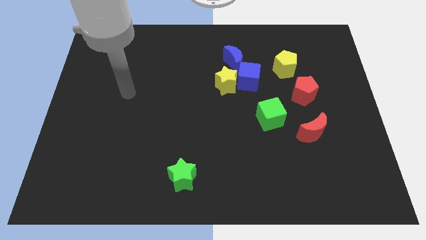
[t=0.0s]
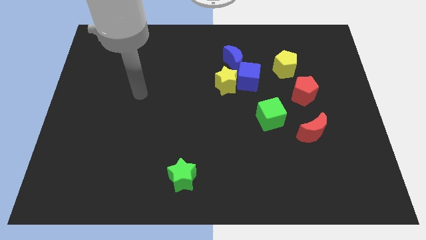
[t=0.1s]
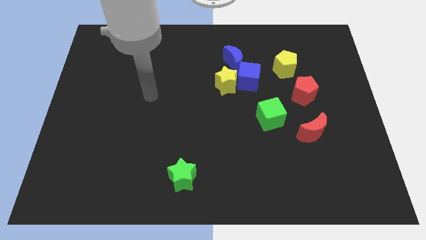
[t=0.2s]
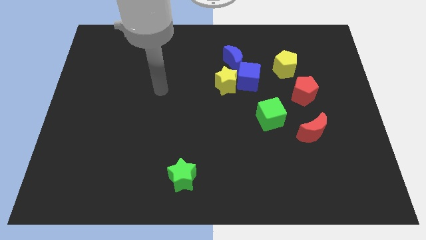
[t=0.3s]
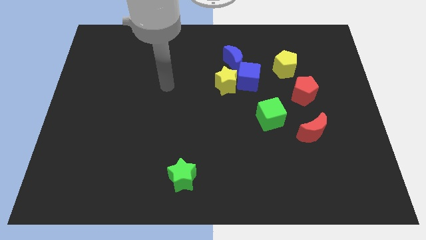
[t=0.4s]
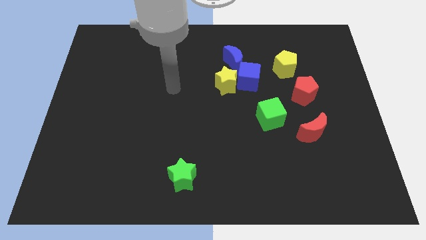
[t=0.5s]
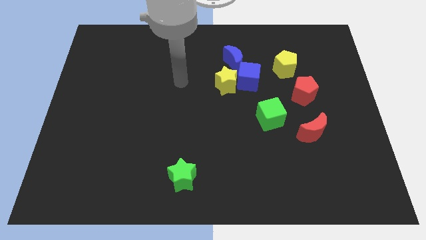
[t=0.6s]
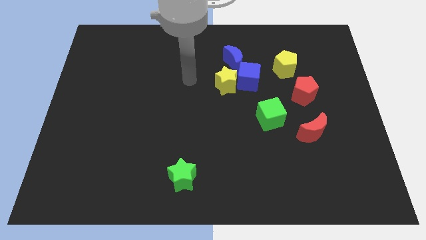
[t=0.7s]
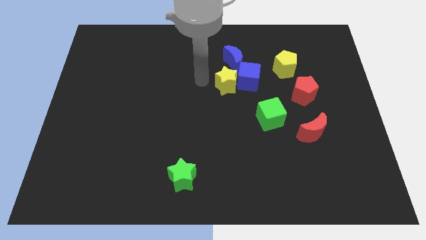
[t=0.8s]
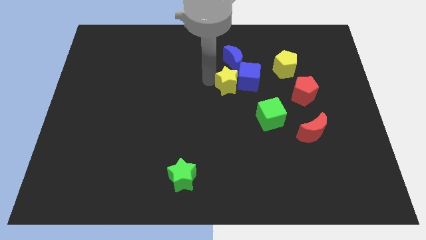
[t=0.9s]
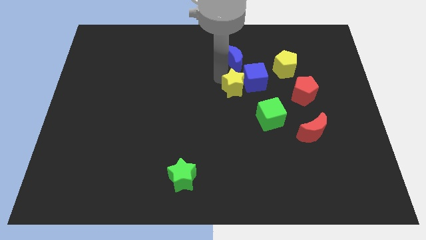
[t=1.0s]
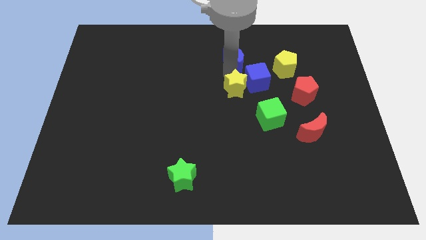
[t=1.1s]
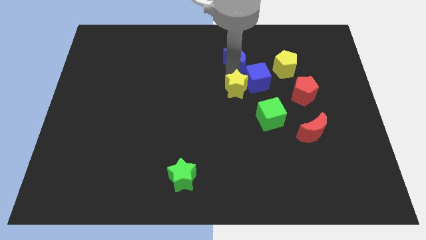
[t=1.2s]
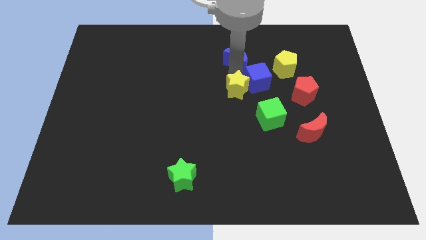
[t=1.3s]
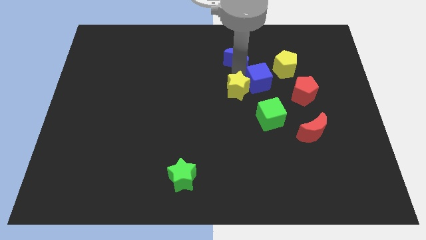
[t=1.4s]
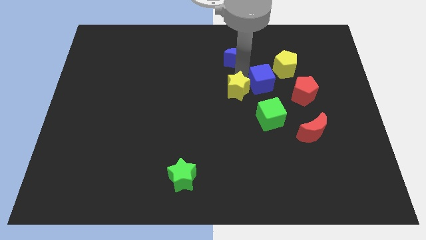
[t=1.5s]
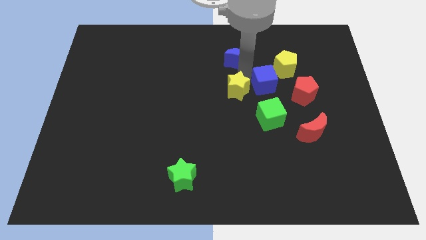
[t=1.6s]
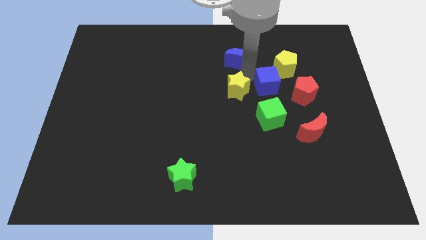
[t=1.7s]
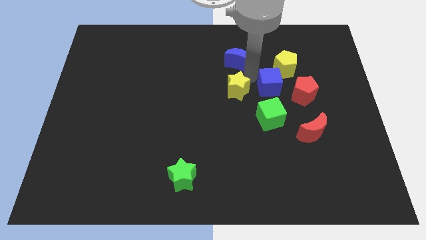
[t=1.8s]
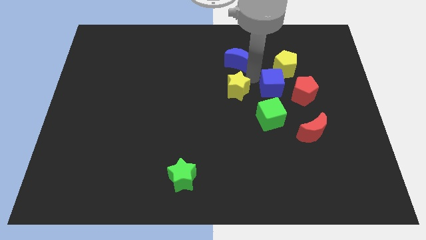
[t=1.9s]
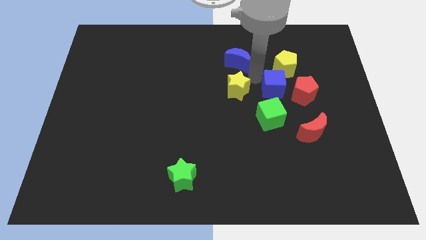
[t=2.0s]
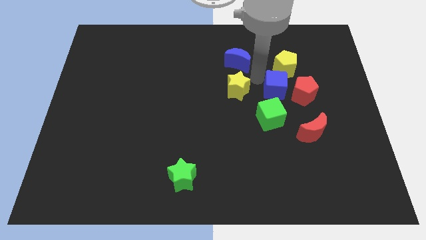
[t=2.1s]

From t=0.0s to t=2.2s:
separate the blue cube from the yellow star and blue moon

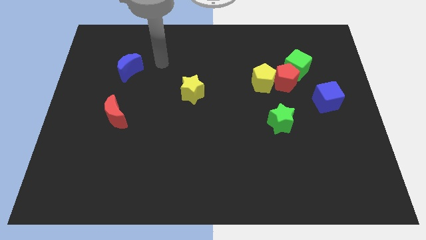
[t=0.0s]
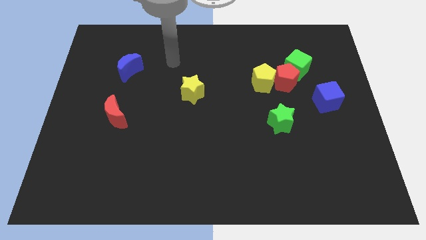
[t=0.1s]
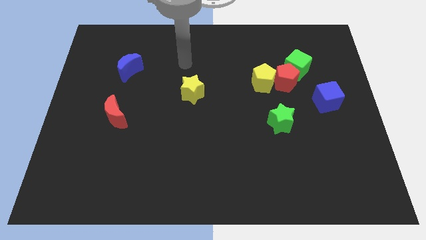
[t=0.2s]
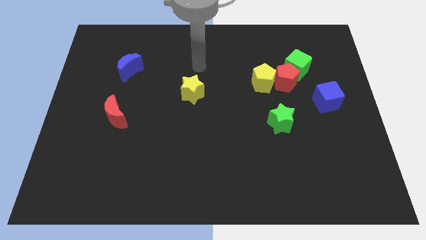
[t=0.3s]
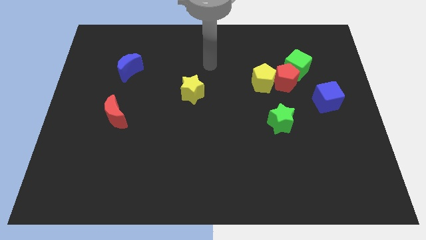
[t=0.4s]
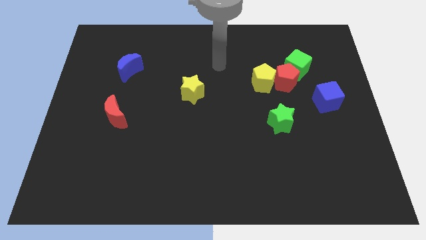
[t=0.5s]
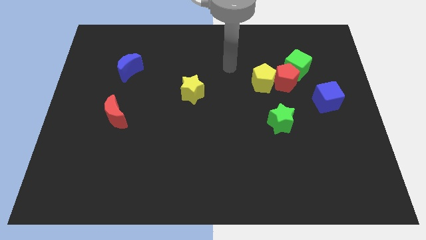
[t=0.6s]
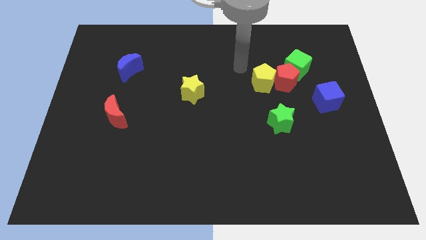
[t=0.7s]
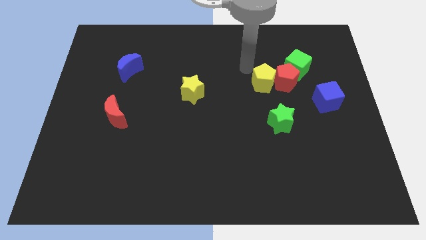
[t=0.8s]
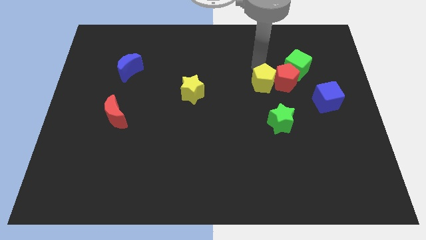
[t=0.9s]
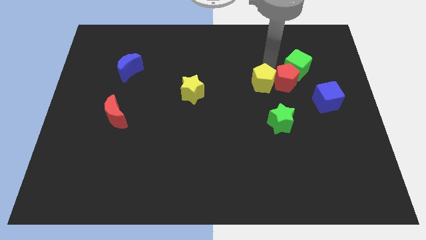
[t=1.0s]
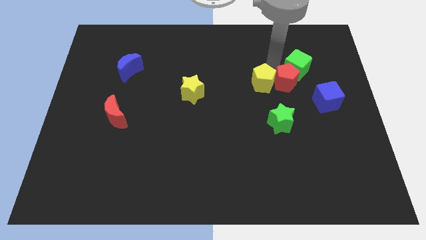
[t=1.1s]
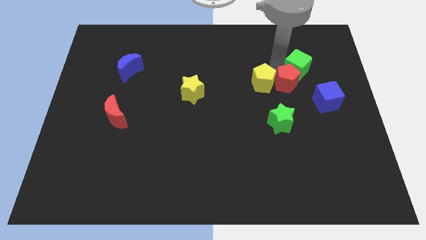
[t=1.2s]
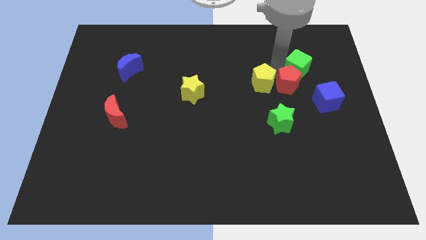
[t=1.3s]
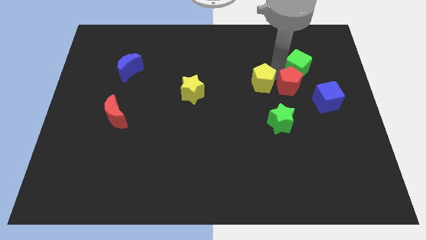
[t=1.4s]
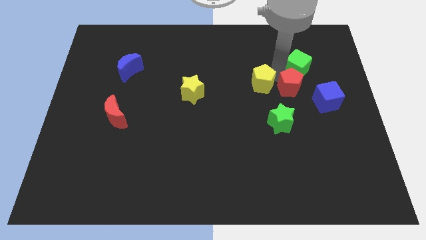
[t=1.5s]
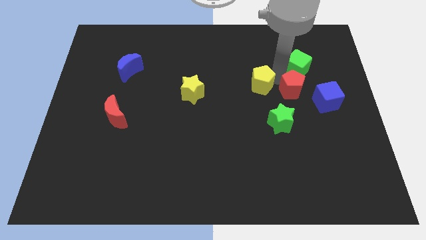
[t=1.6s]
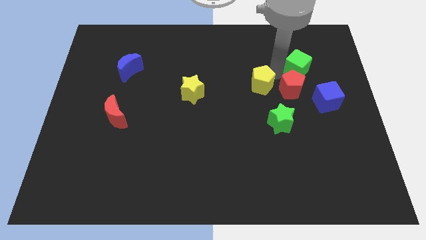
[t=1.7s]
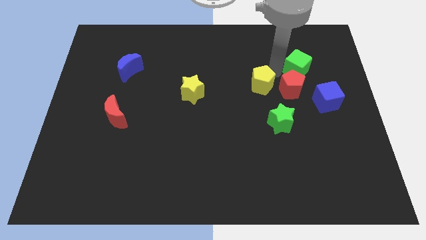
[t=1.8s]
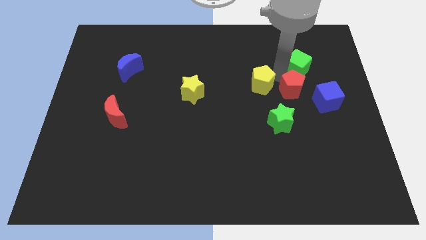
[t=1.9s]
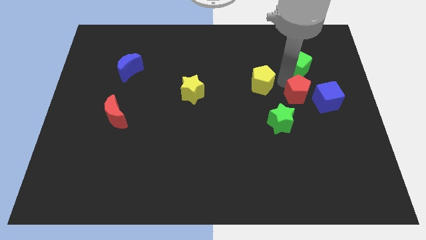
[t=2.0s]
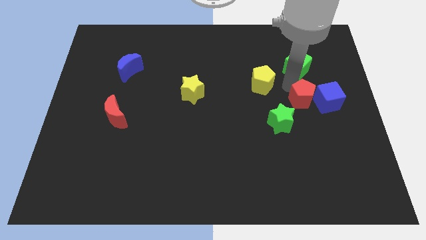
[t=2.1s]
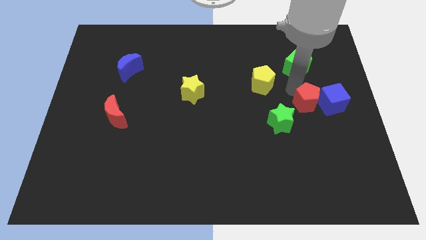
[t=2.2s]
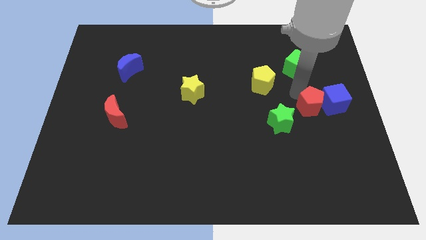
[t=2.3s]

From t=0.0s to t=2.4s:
separate the red pentagon from the green cube and yellow pentagon

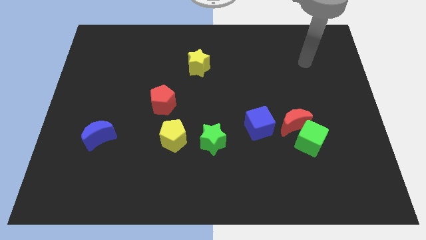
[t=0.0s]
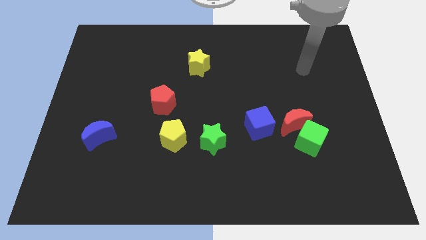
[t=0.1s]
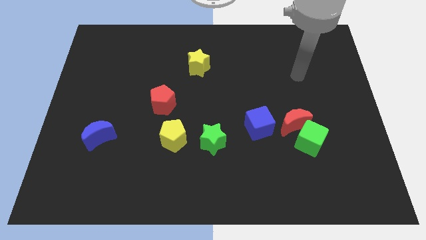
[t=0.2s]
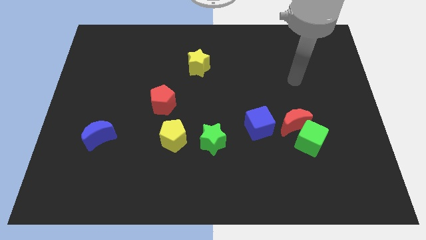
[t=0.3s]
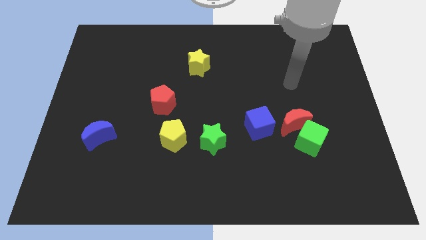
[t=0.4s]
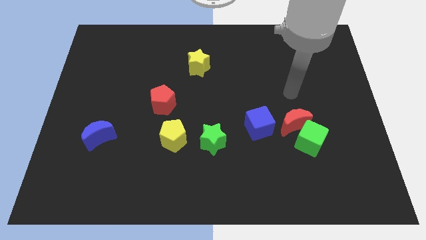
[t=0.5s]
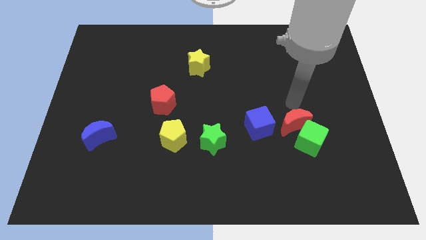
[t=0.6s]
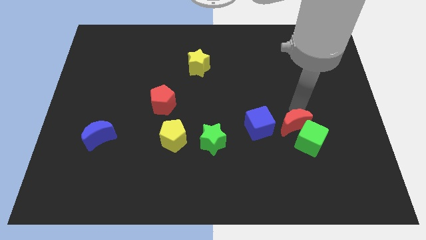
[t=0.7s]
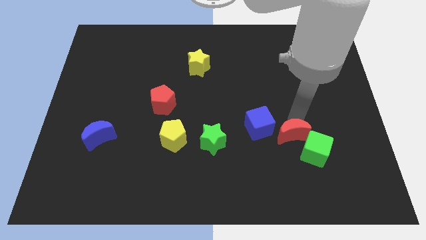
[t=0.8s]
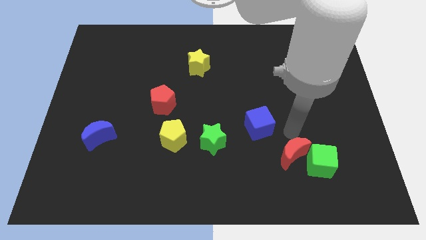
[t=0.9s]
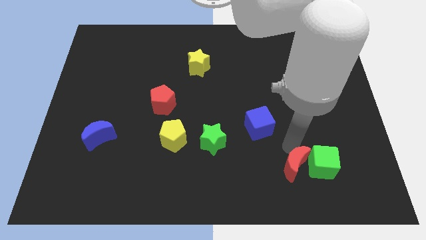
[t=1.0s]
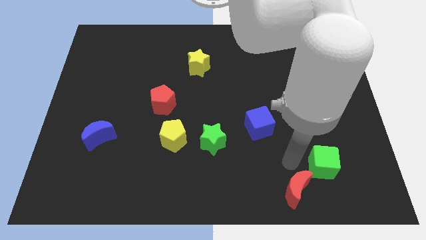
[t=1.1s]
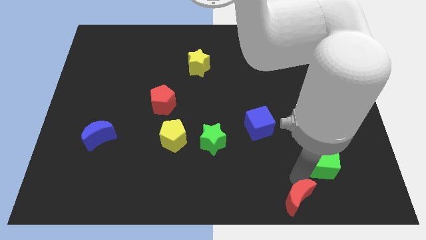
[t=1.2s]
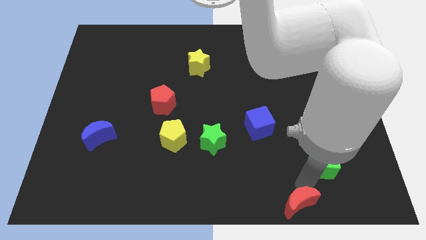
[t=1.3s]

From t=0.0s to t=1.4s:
move the green cube away from the red moon

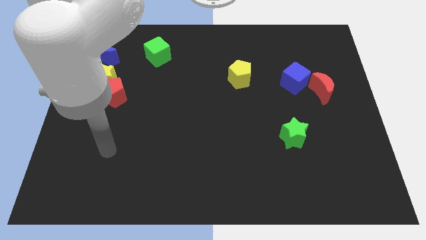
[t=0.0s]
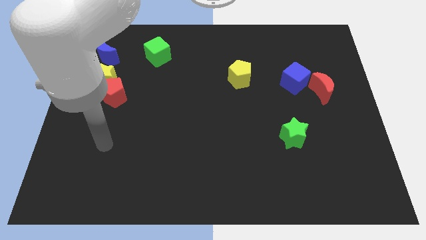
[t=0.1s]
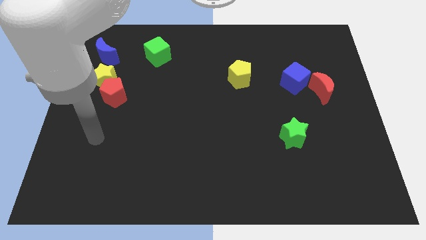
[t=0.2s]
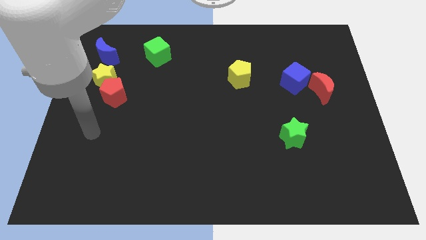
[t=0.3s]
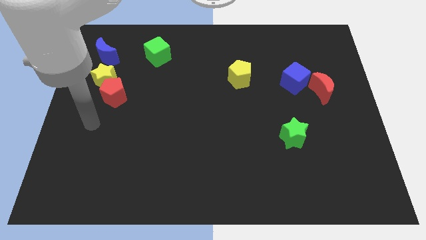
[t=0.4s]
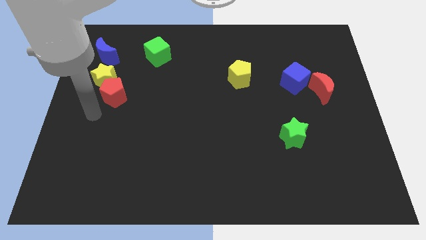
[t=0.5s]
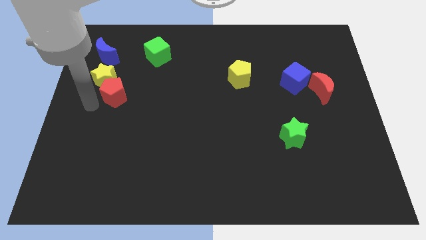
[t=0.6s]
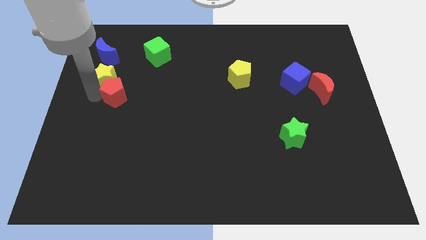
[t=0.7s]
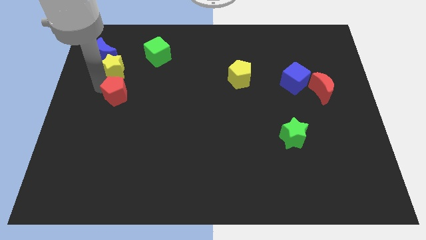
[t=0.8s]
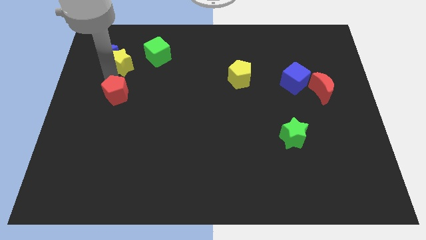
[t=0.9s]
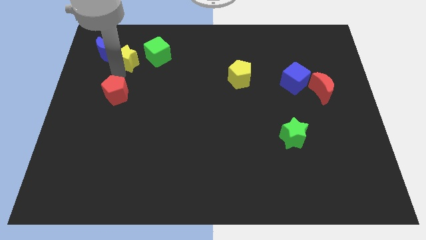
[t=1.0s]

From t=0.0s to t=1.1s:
separate the red pentagon from the yellow star

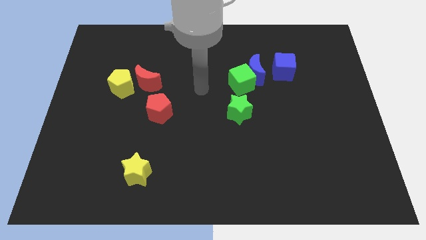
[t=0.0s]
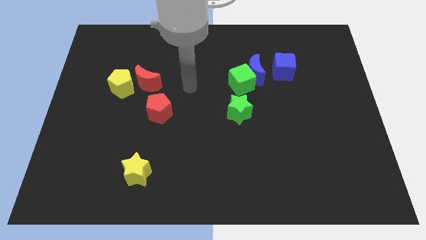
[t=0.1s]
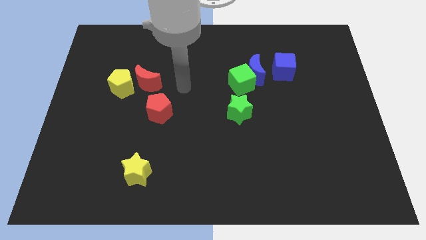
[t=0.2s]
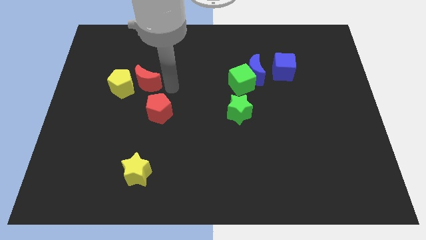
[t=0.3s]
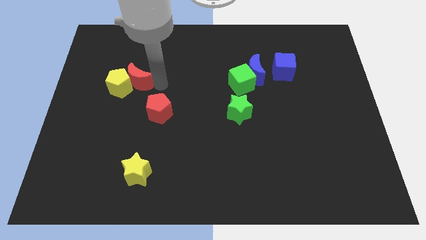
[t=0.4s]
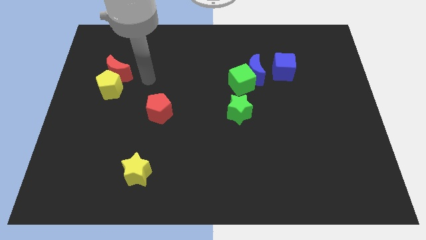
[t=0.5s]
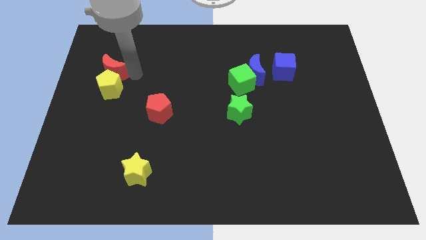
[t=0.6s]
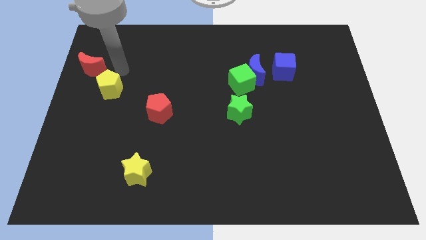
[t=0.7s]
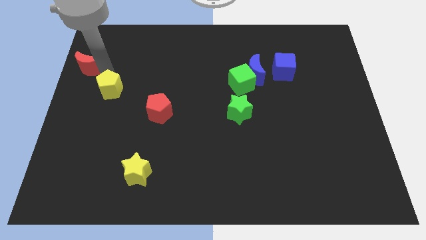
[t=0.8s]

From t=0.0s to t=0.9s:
separate the yellow pentagon from the red moon

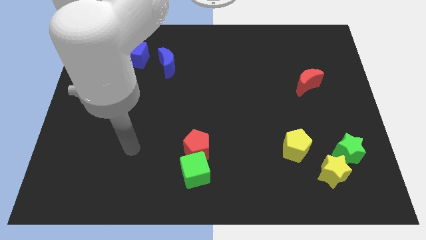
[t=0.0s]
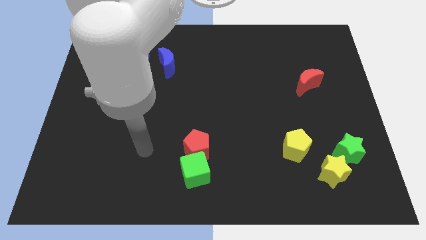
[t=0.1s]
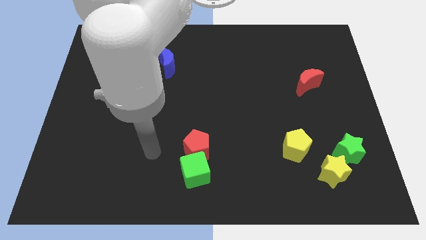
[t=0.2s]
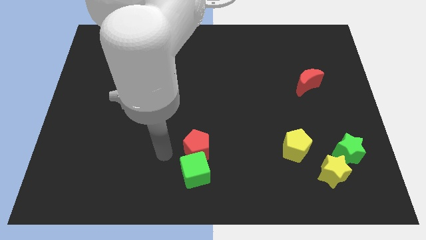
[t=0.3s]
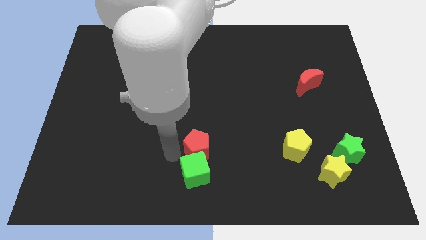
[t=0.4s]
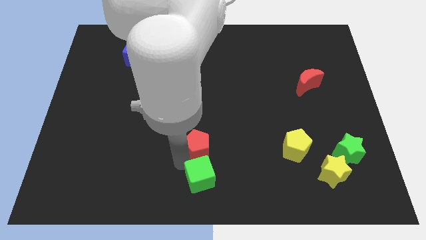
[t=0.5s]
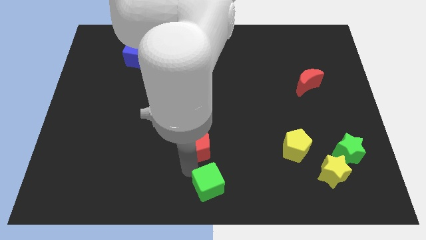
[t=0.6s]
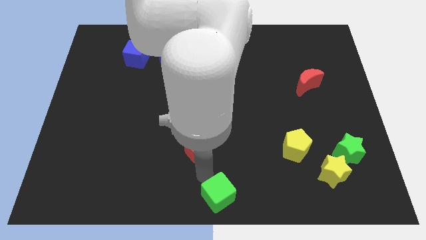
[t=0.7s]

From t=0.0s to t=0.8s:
move the red pentagon away from the green cube

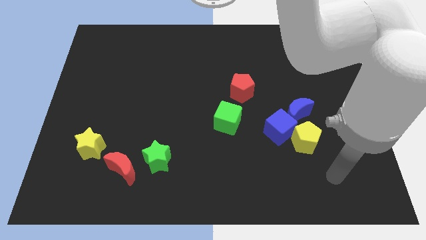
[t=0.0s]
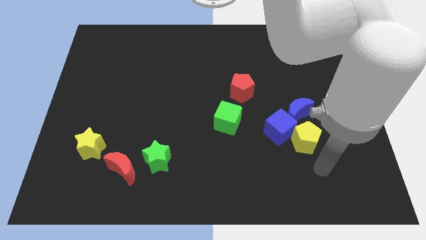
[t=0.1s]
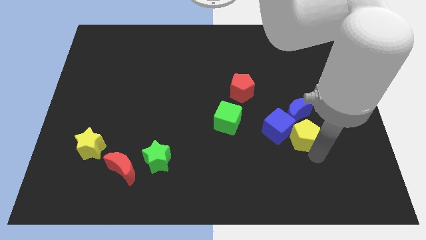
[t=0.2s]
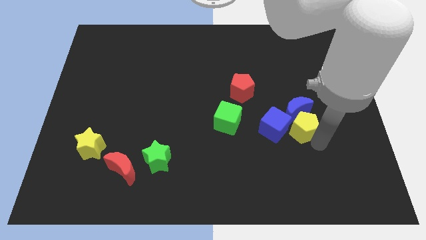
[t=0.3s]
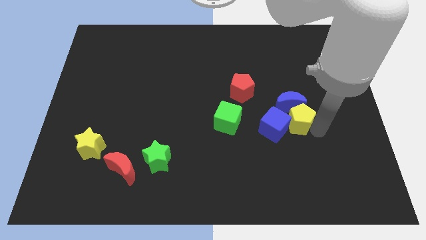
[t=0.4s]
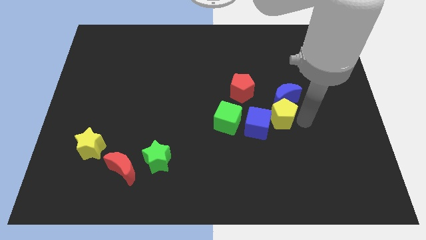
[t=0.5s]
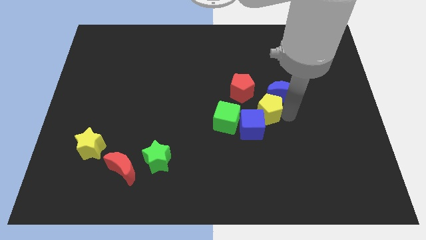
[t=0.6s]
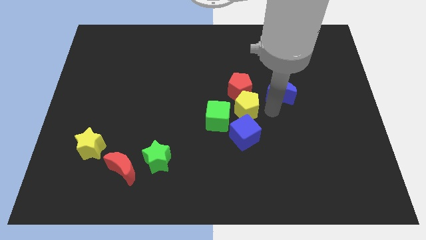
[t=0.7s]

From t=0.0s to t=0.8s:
separate the blue cube from the yellow pentagon and blue moon
